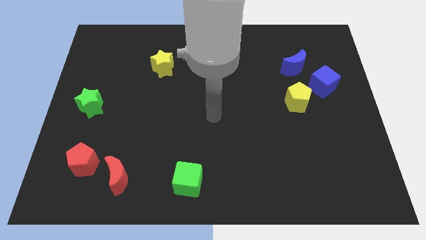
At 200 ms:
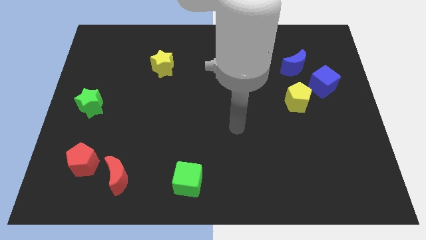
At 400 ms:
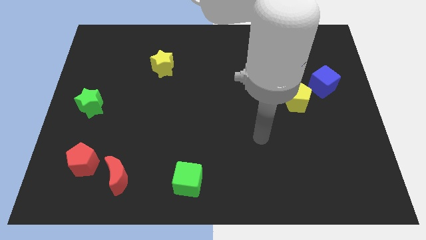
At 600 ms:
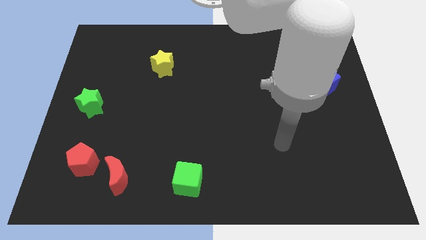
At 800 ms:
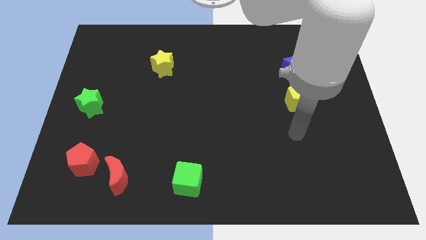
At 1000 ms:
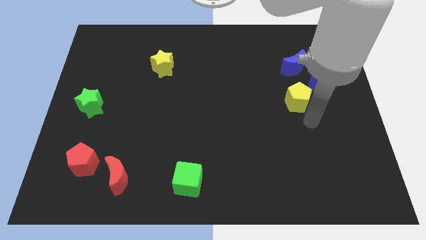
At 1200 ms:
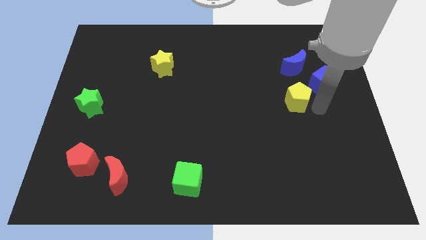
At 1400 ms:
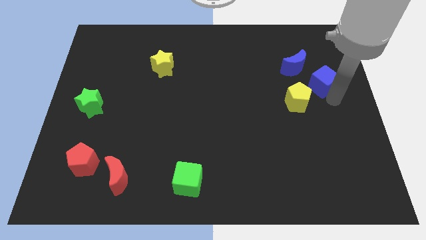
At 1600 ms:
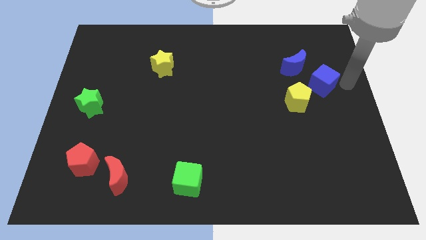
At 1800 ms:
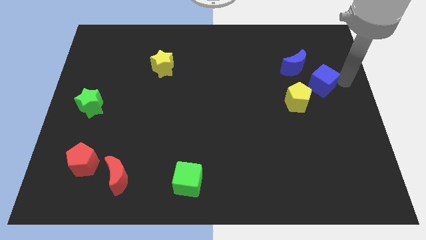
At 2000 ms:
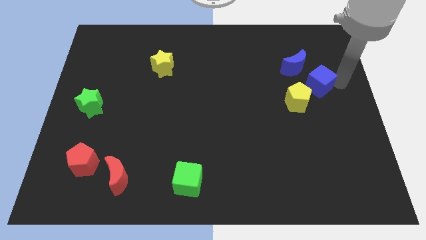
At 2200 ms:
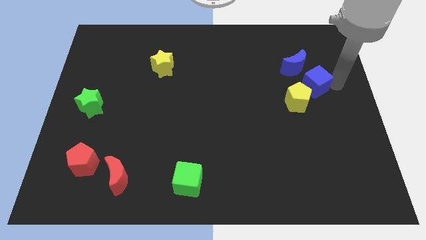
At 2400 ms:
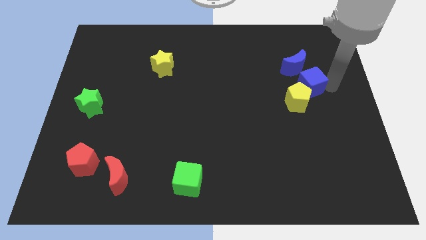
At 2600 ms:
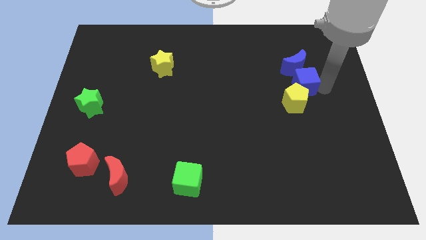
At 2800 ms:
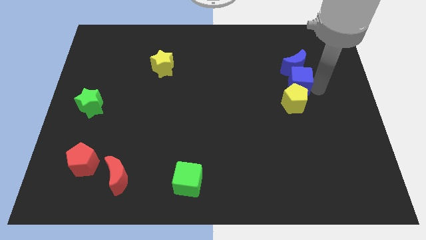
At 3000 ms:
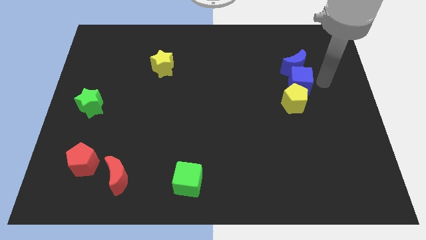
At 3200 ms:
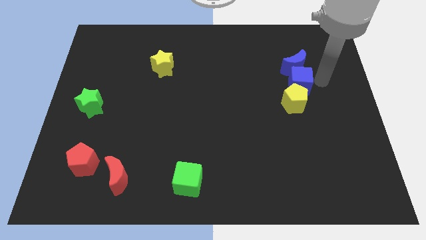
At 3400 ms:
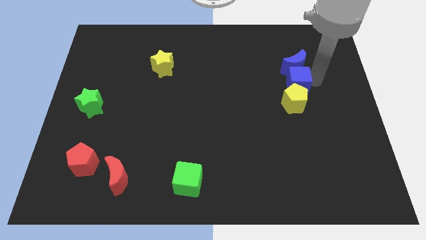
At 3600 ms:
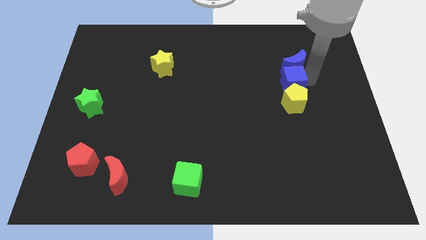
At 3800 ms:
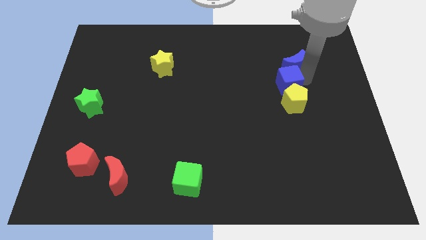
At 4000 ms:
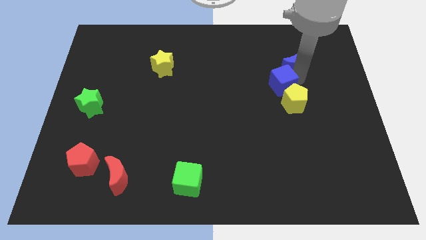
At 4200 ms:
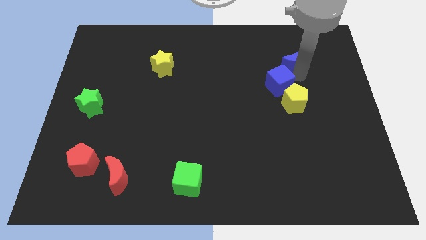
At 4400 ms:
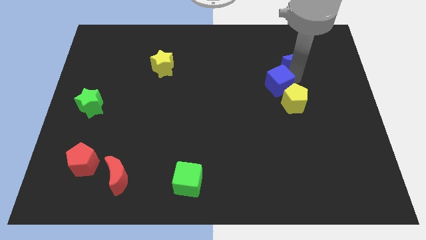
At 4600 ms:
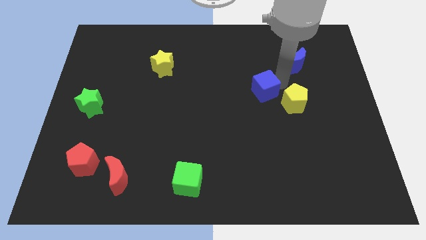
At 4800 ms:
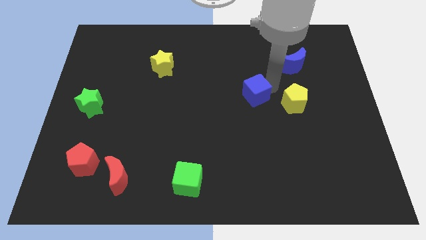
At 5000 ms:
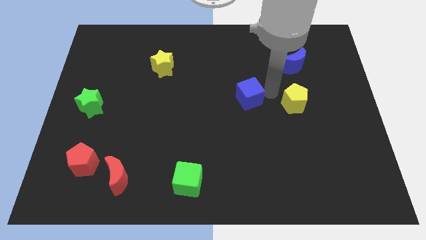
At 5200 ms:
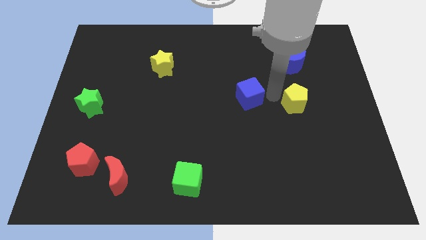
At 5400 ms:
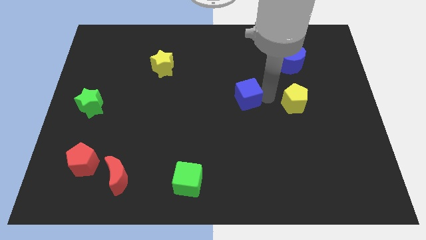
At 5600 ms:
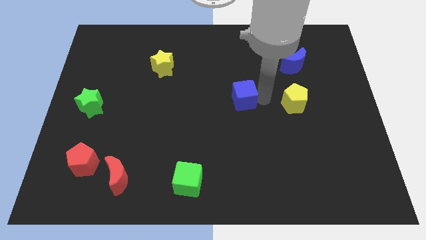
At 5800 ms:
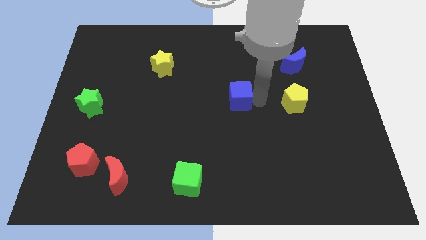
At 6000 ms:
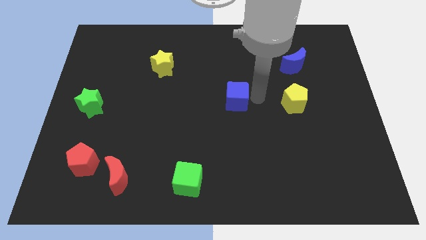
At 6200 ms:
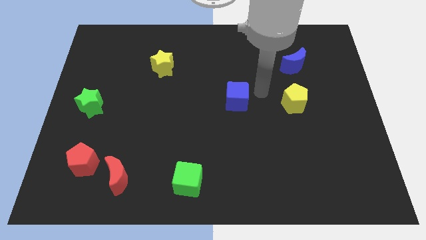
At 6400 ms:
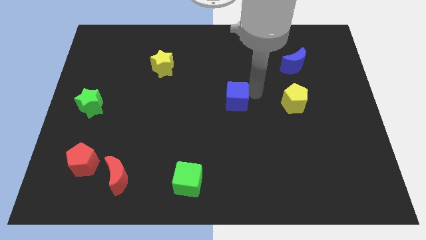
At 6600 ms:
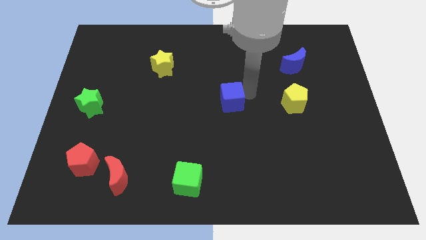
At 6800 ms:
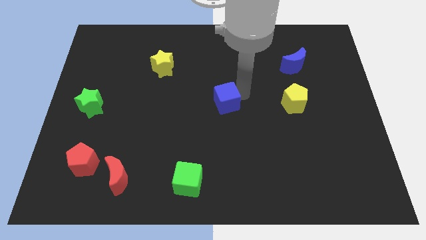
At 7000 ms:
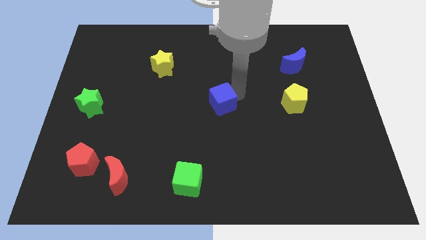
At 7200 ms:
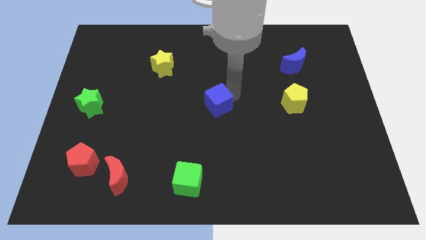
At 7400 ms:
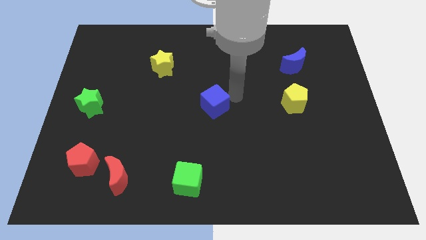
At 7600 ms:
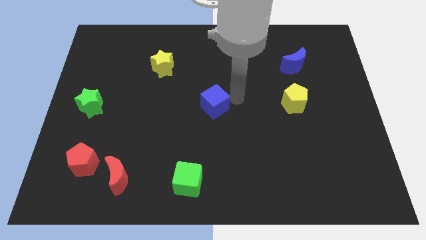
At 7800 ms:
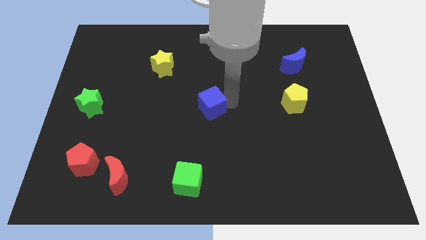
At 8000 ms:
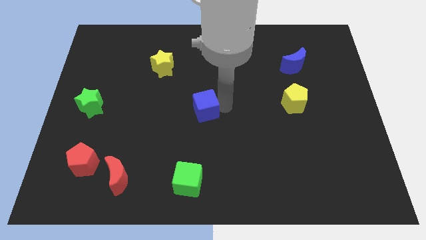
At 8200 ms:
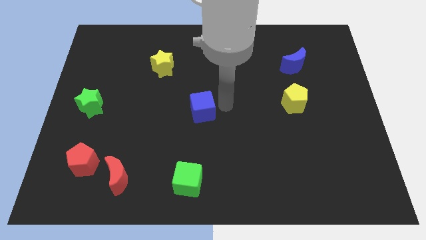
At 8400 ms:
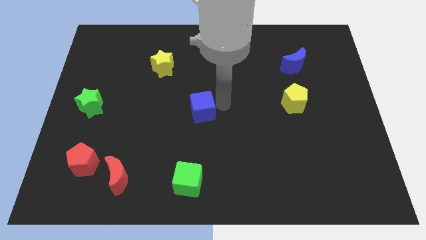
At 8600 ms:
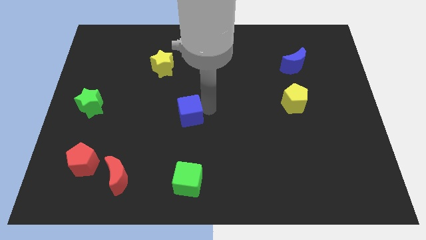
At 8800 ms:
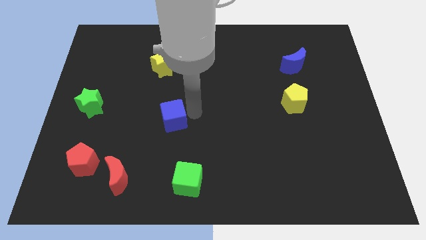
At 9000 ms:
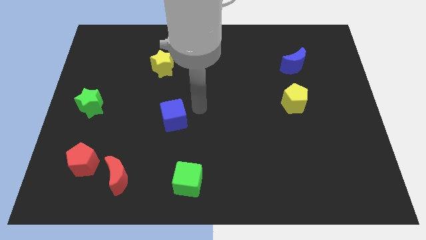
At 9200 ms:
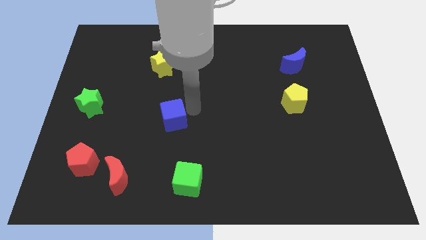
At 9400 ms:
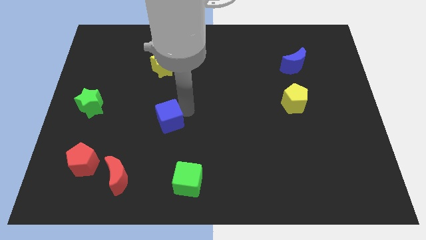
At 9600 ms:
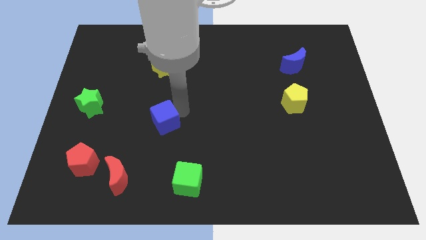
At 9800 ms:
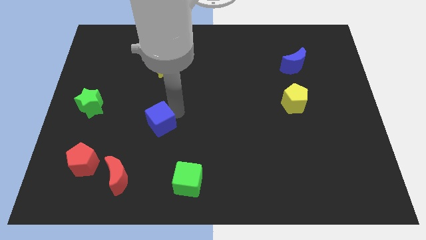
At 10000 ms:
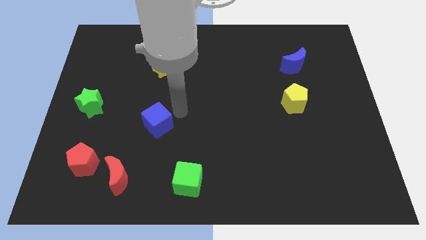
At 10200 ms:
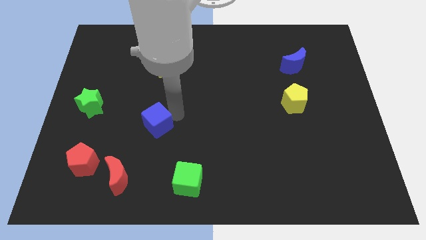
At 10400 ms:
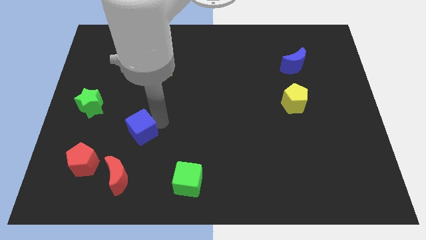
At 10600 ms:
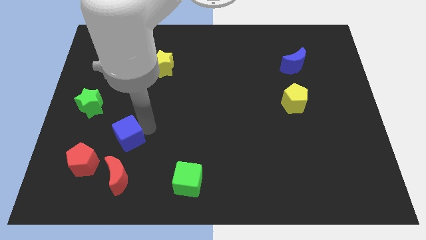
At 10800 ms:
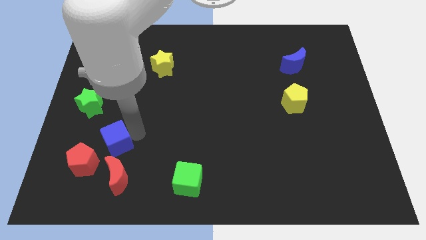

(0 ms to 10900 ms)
push the blue cube to the top left of the red moon
